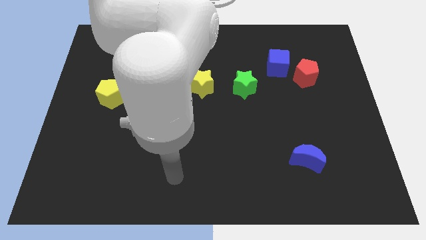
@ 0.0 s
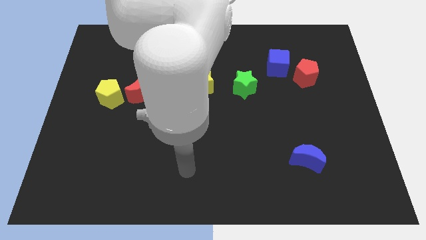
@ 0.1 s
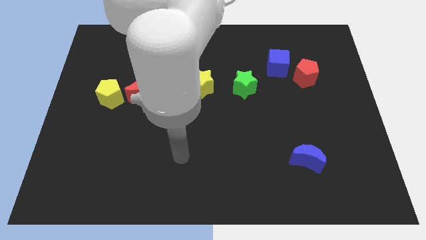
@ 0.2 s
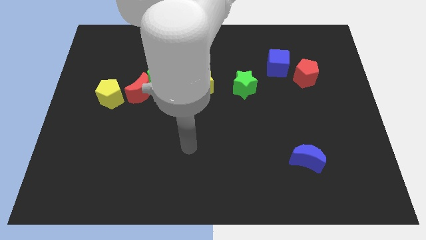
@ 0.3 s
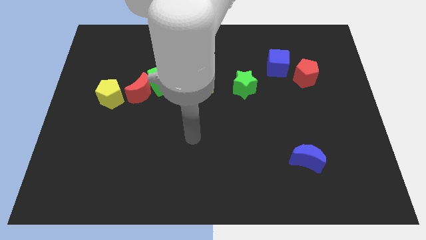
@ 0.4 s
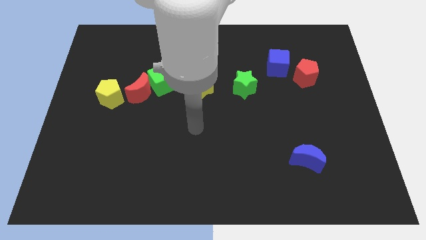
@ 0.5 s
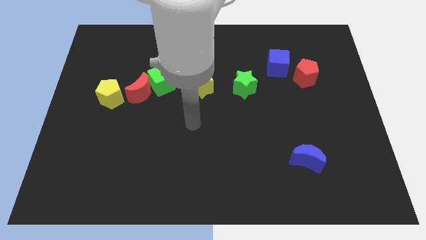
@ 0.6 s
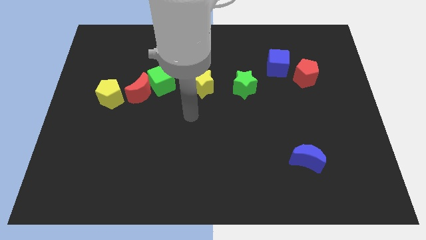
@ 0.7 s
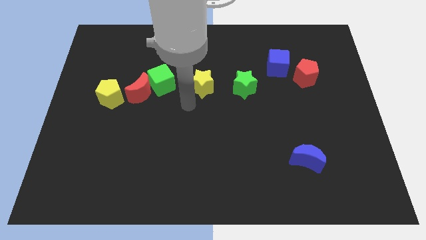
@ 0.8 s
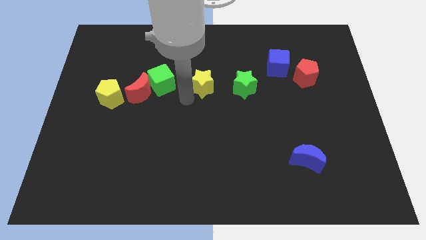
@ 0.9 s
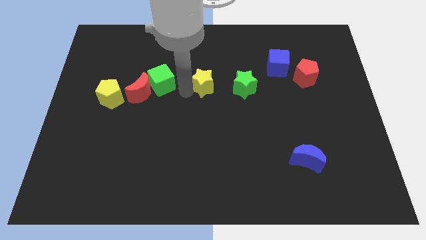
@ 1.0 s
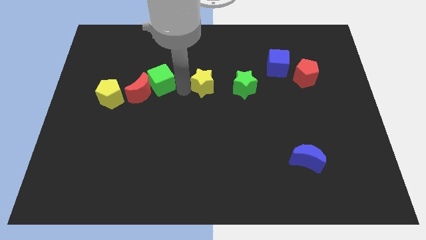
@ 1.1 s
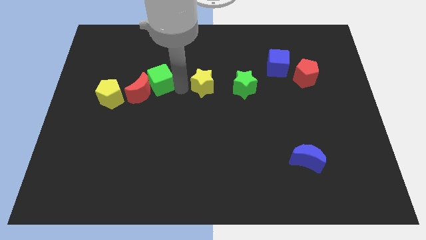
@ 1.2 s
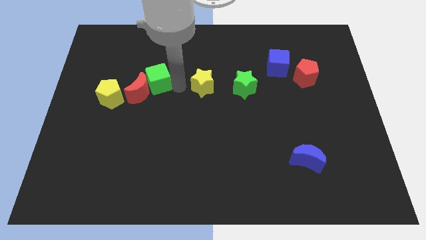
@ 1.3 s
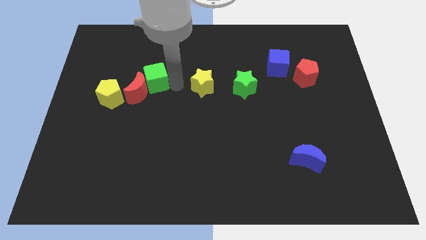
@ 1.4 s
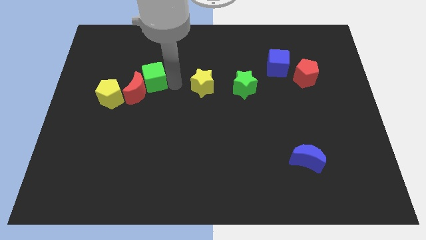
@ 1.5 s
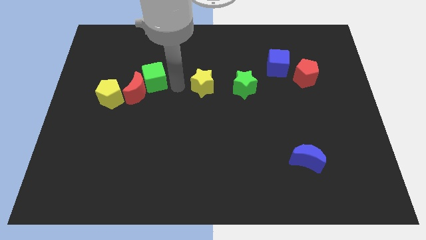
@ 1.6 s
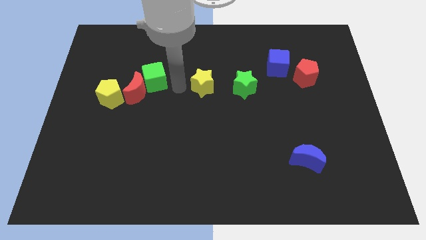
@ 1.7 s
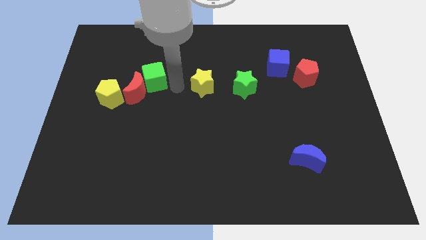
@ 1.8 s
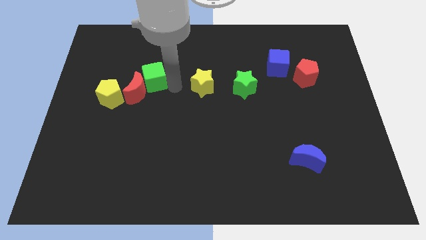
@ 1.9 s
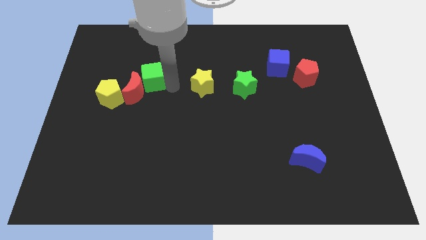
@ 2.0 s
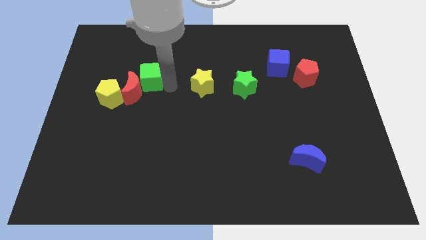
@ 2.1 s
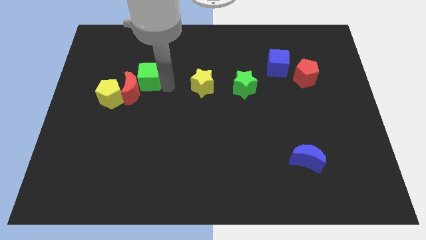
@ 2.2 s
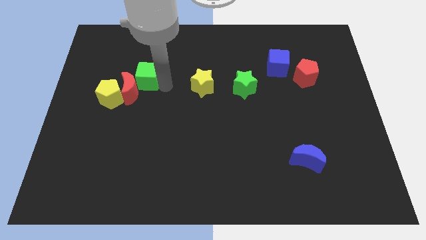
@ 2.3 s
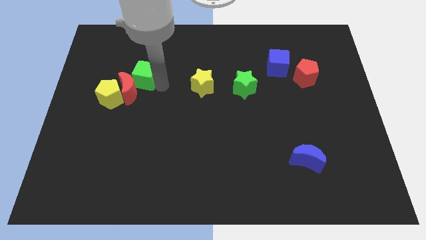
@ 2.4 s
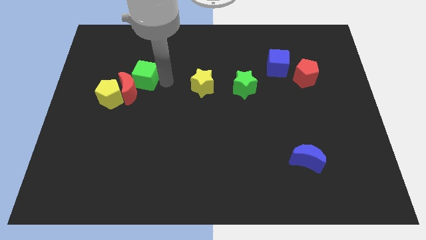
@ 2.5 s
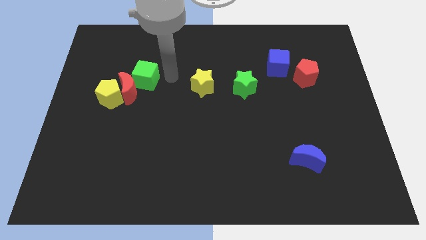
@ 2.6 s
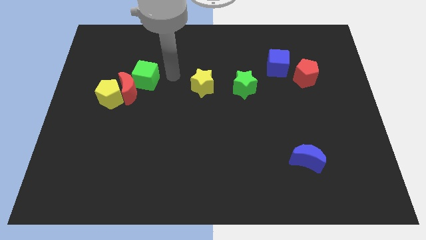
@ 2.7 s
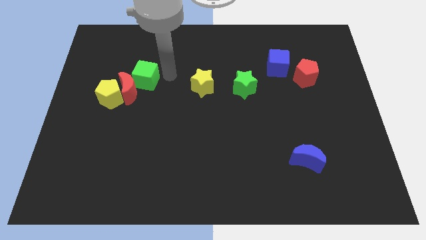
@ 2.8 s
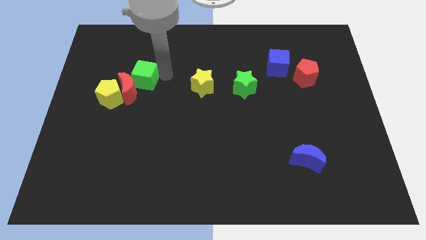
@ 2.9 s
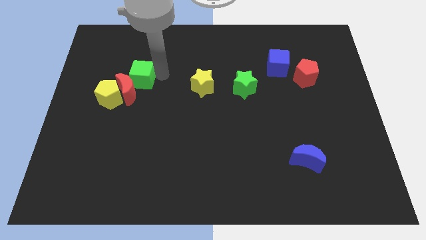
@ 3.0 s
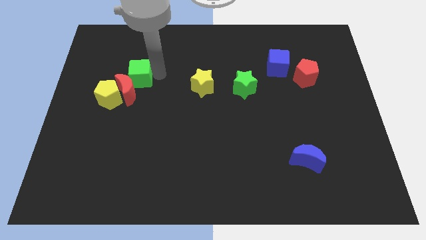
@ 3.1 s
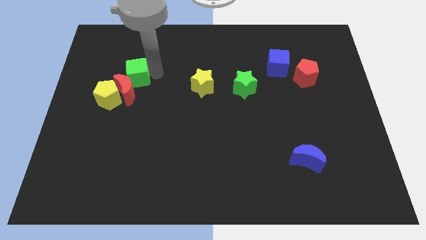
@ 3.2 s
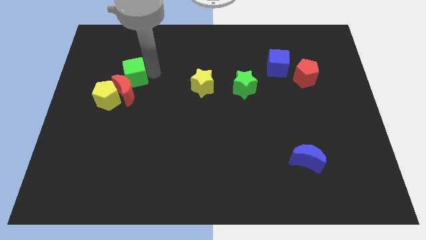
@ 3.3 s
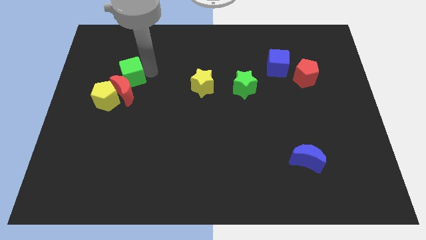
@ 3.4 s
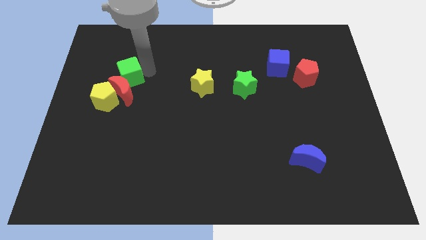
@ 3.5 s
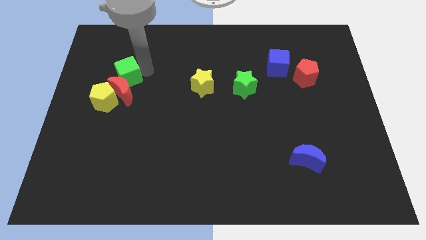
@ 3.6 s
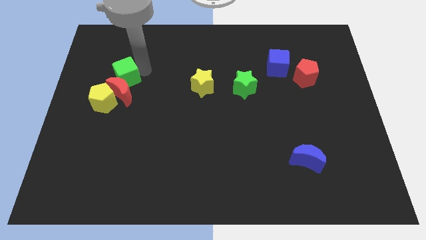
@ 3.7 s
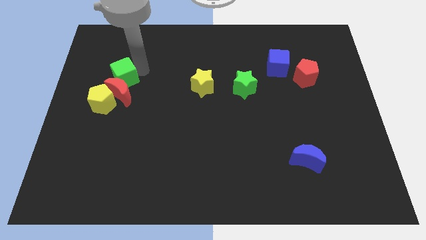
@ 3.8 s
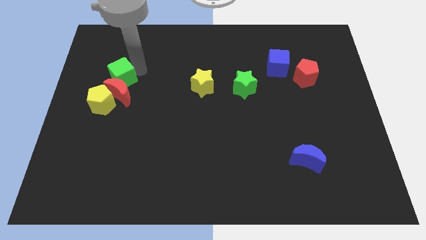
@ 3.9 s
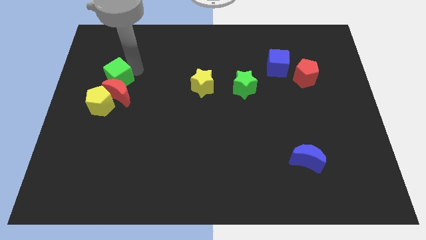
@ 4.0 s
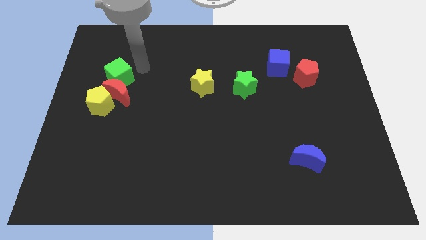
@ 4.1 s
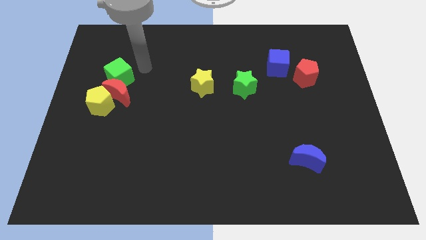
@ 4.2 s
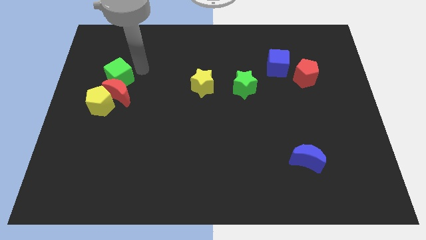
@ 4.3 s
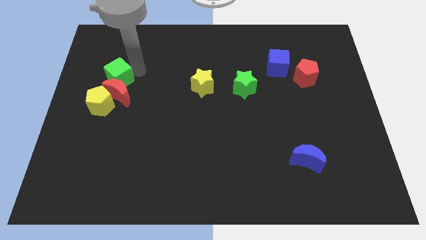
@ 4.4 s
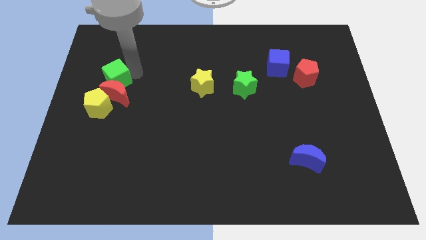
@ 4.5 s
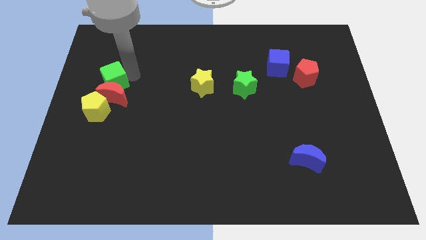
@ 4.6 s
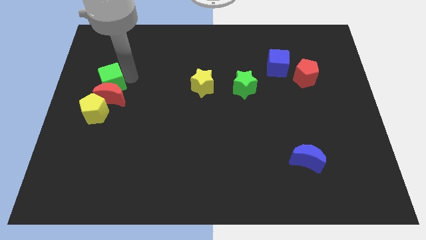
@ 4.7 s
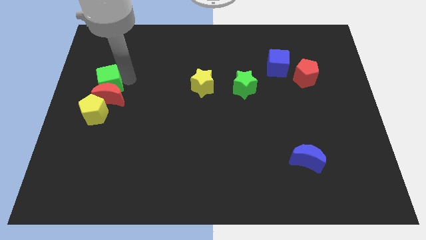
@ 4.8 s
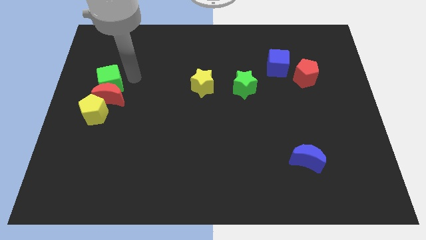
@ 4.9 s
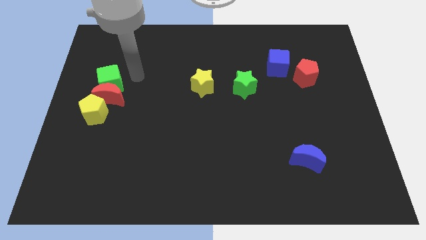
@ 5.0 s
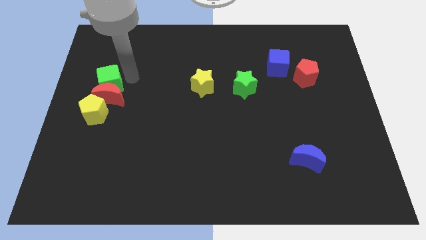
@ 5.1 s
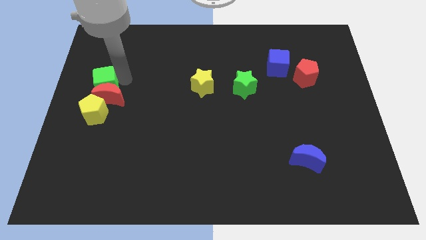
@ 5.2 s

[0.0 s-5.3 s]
push the green cube to the center left

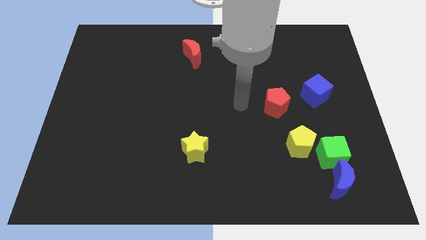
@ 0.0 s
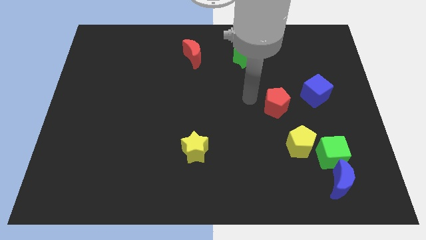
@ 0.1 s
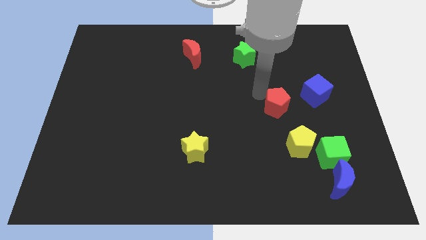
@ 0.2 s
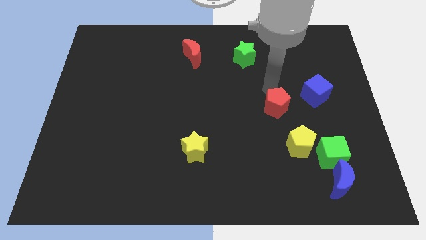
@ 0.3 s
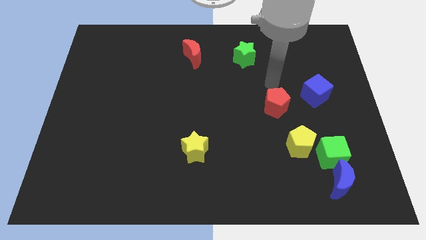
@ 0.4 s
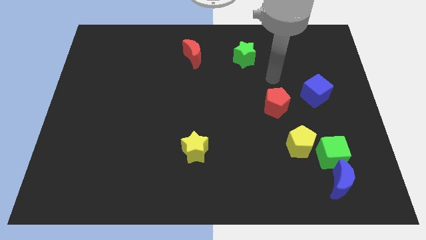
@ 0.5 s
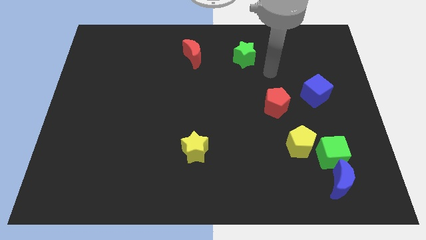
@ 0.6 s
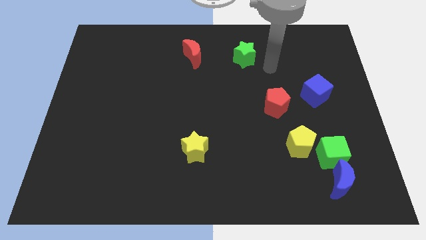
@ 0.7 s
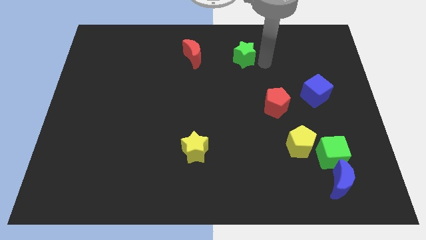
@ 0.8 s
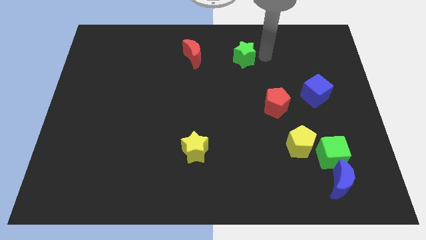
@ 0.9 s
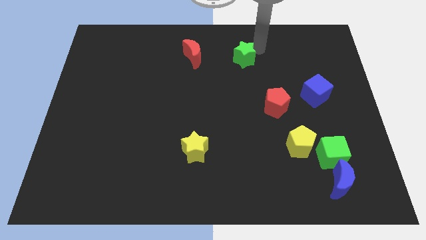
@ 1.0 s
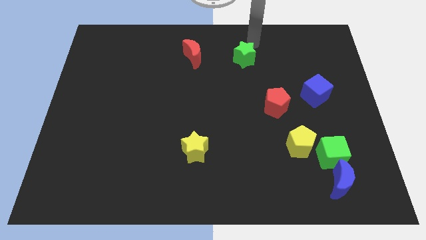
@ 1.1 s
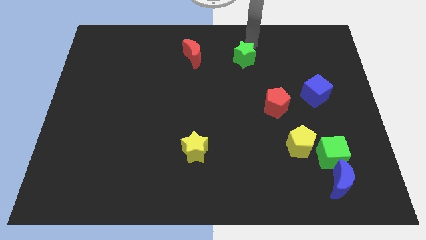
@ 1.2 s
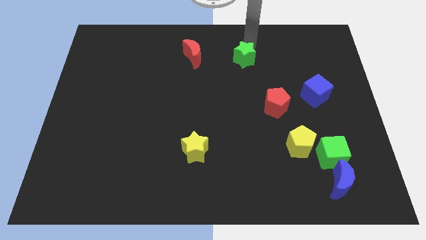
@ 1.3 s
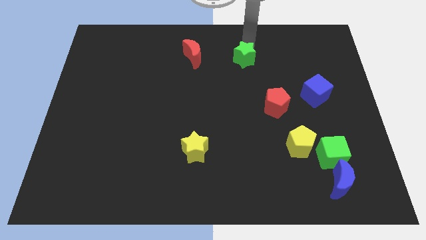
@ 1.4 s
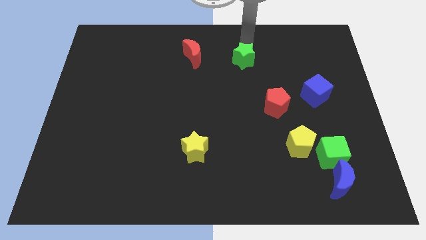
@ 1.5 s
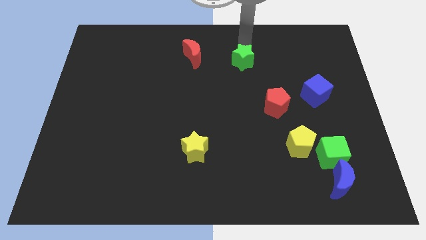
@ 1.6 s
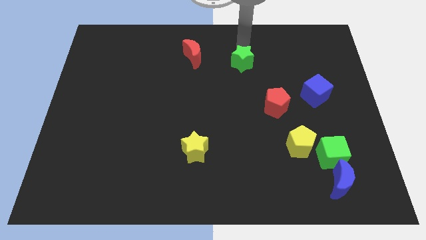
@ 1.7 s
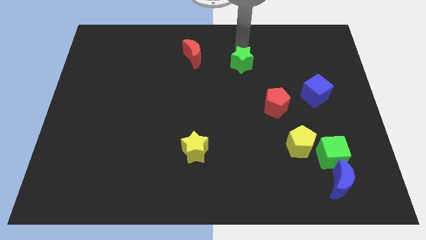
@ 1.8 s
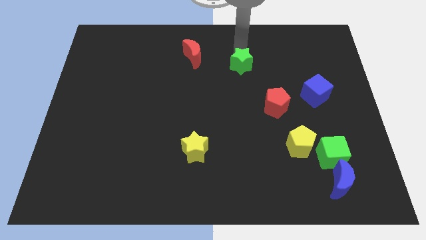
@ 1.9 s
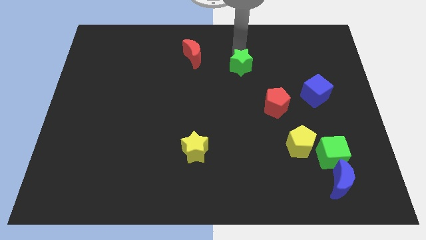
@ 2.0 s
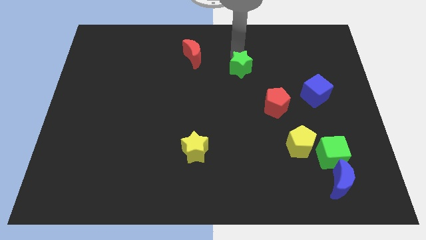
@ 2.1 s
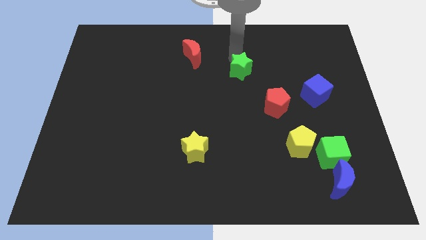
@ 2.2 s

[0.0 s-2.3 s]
move the green star to the center
